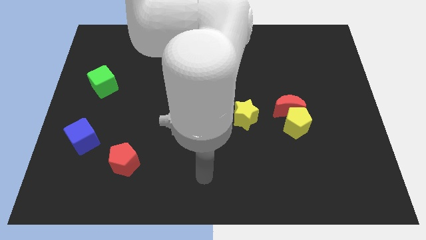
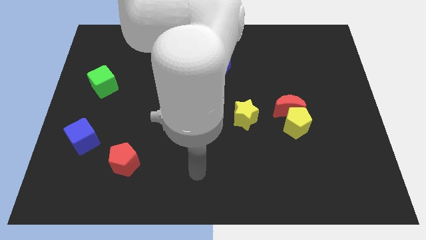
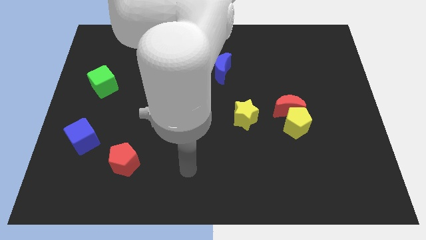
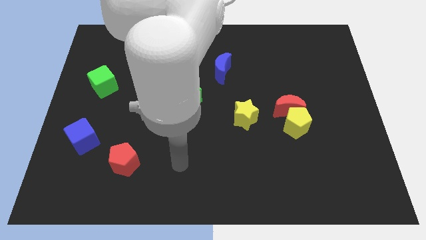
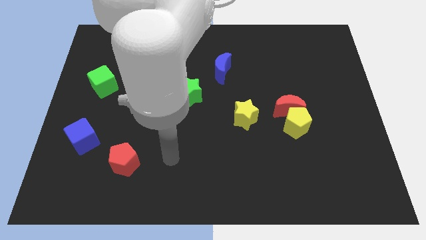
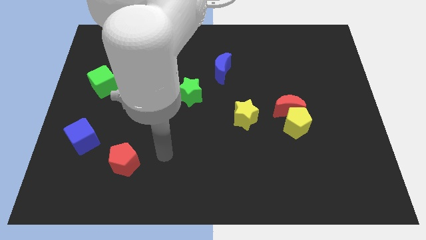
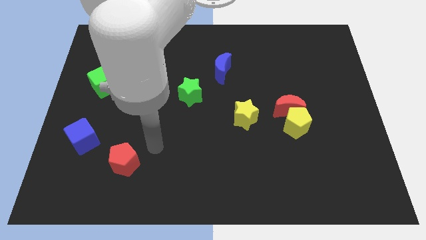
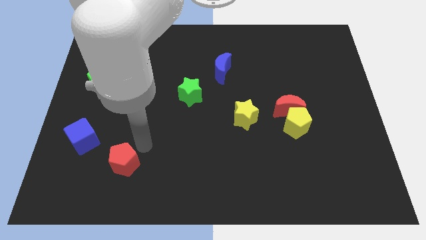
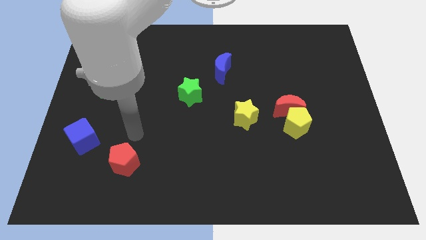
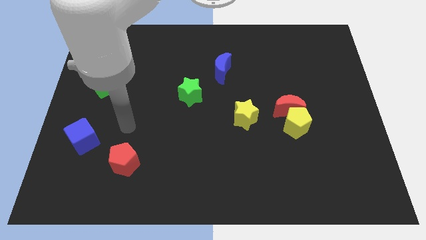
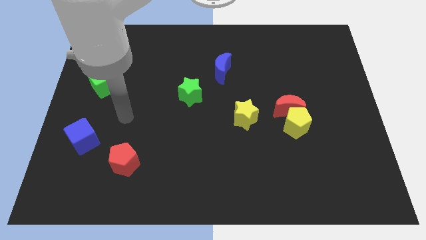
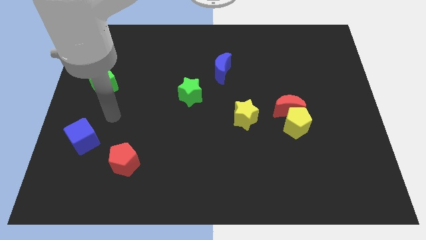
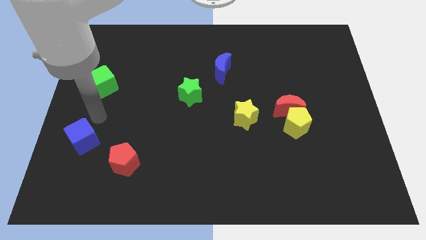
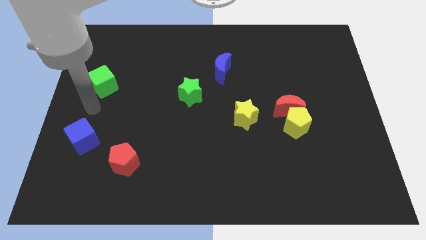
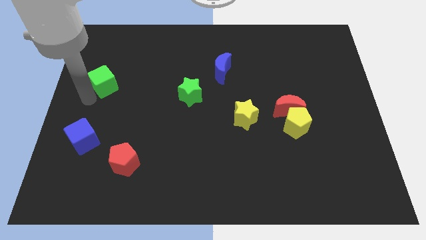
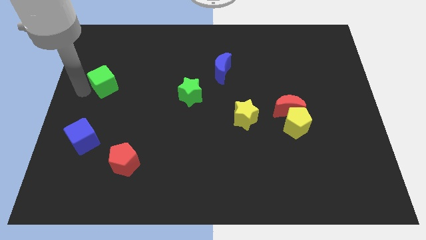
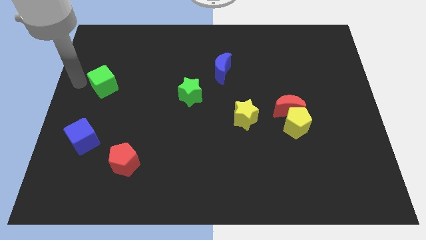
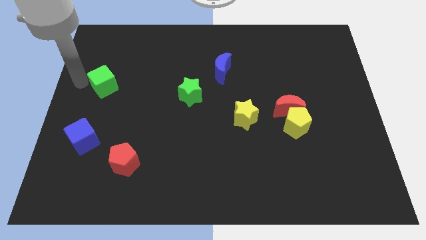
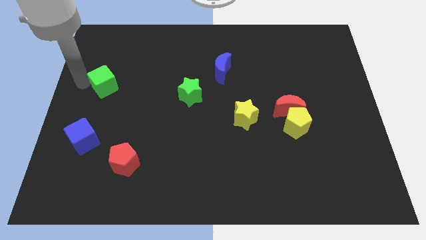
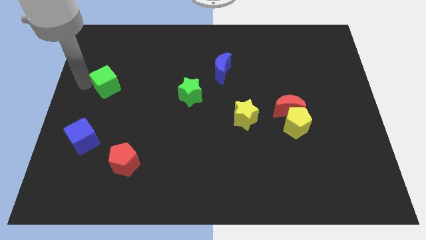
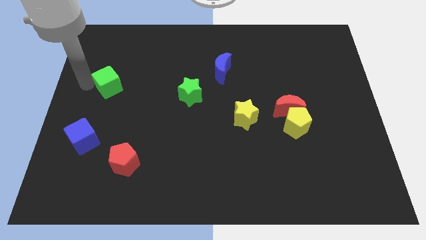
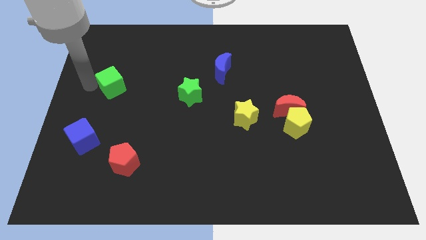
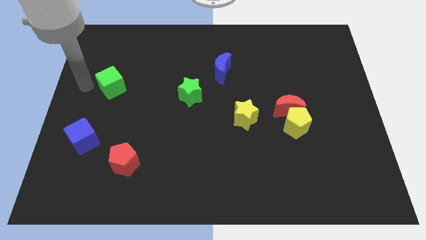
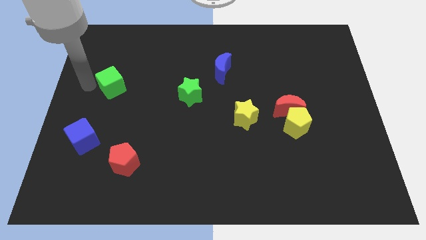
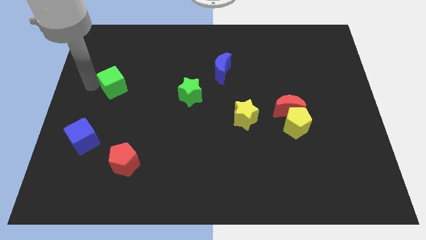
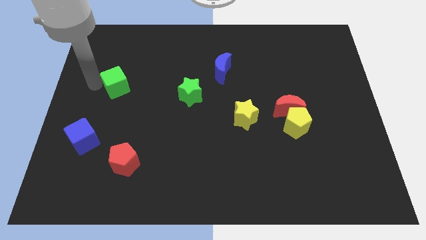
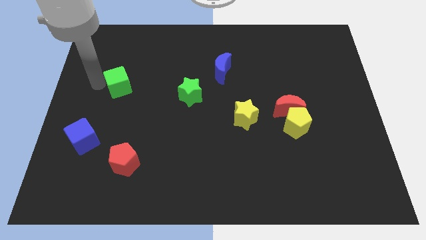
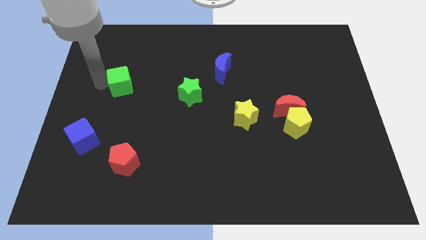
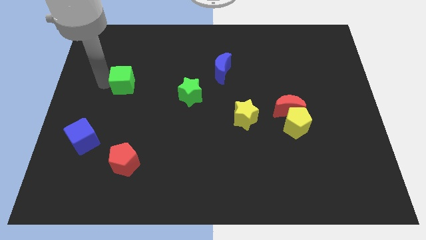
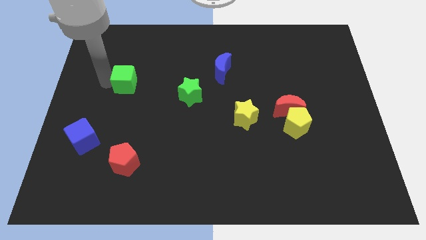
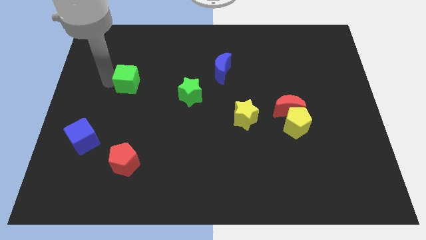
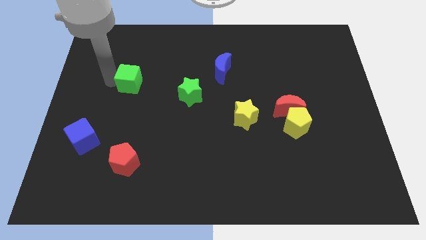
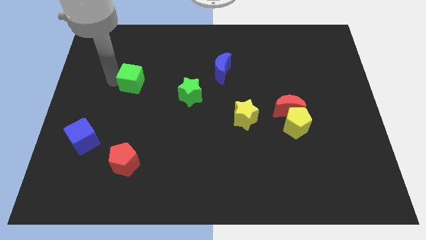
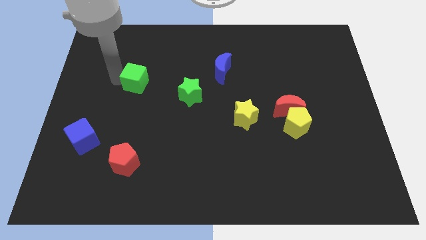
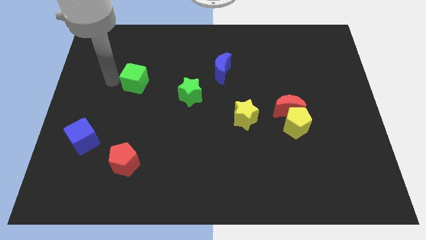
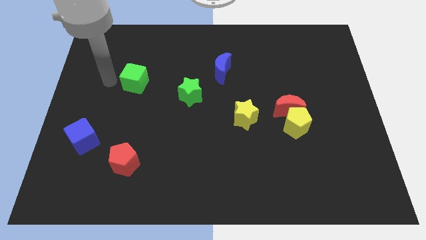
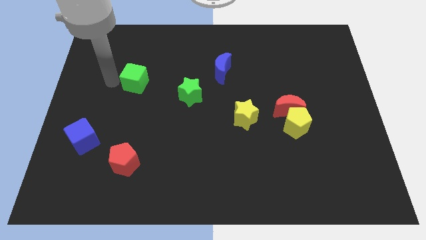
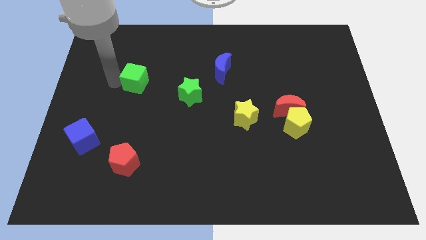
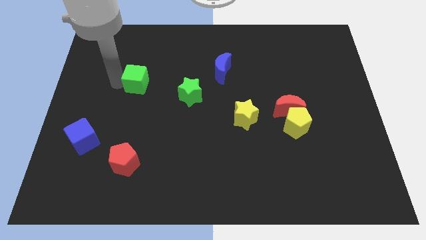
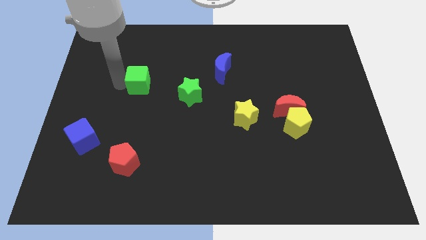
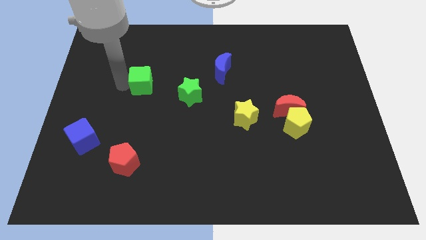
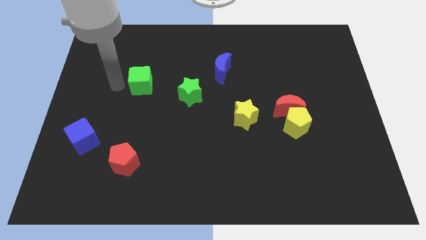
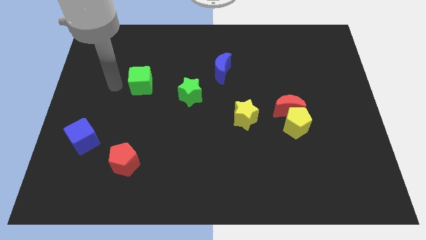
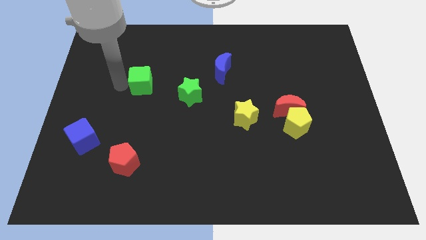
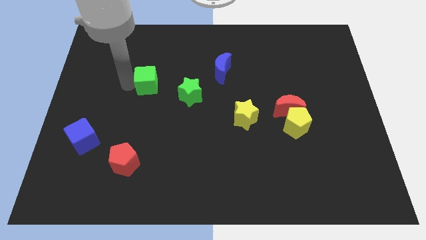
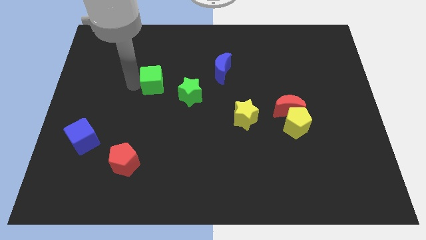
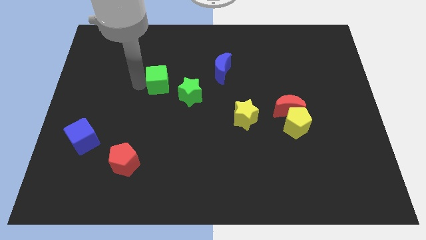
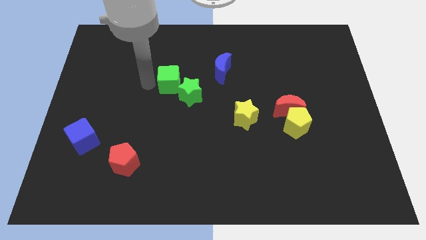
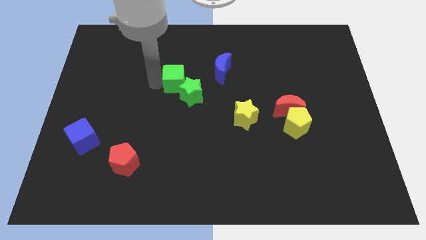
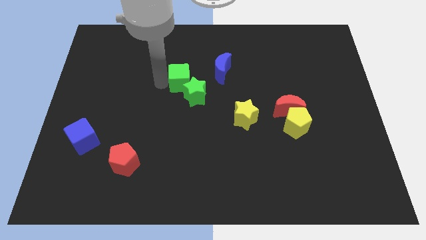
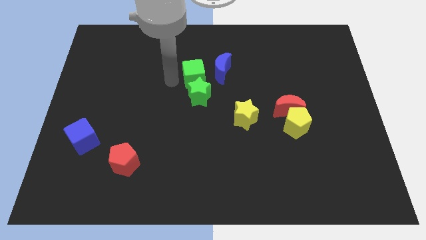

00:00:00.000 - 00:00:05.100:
move the green cube to the right

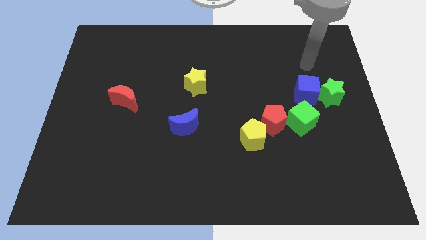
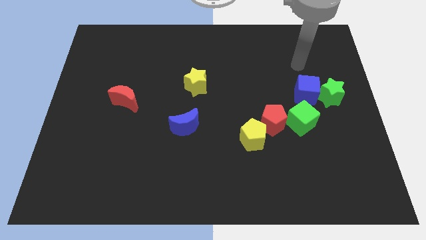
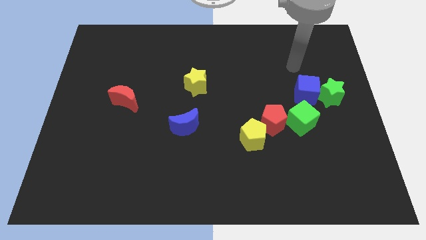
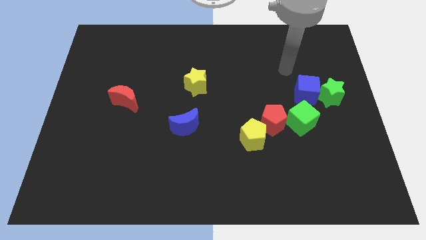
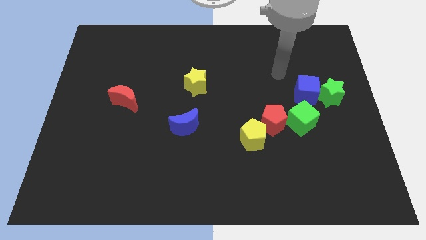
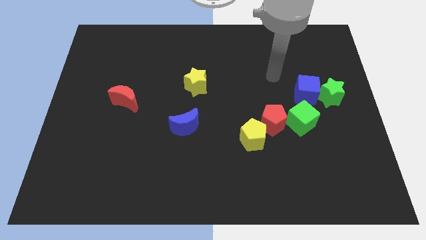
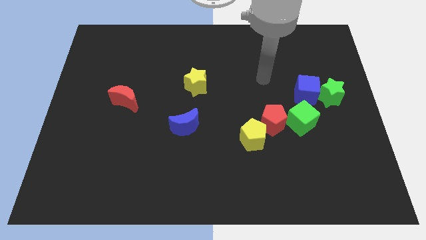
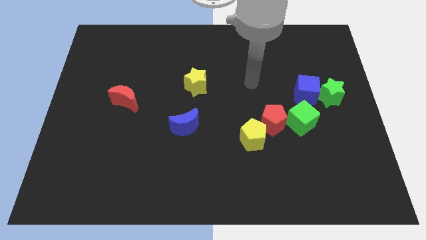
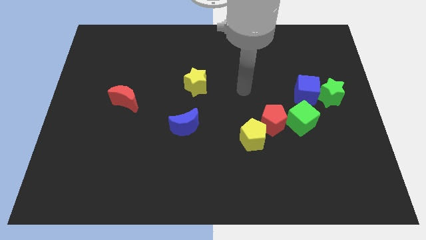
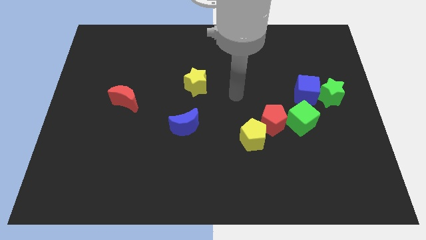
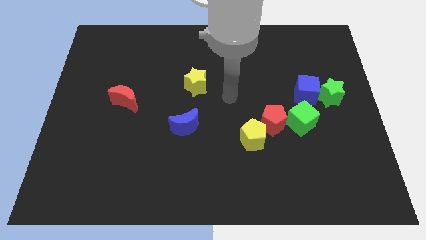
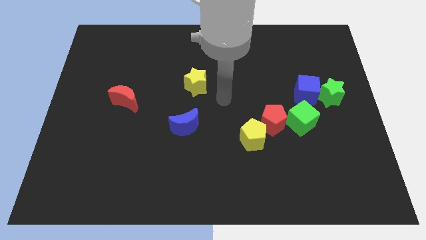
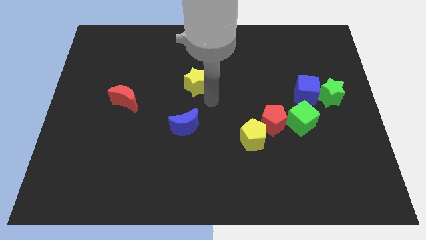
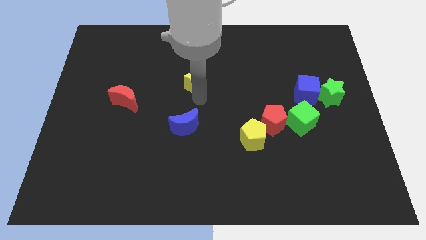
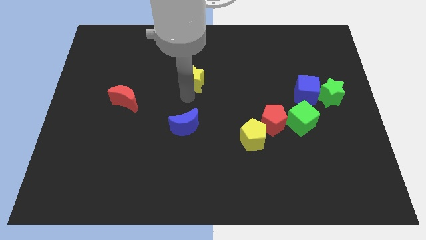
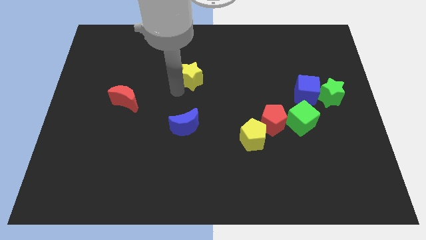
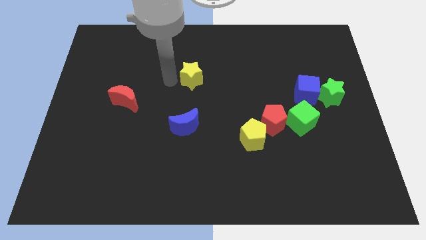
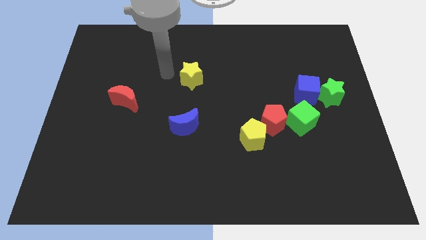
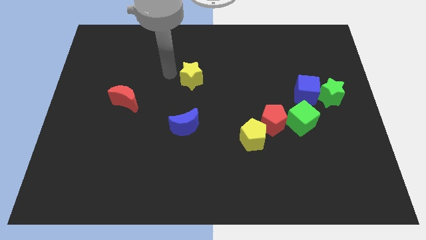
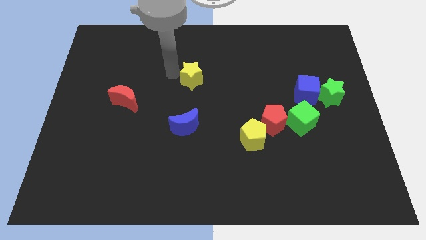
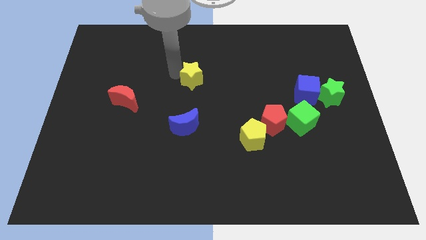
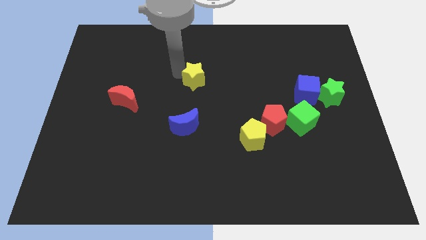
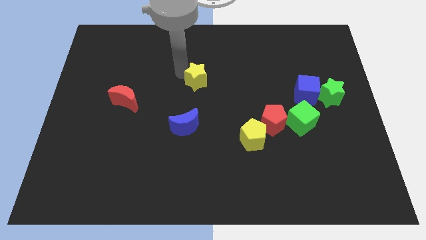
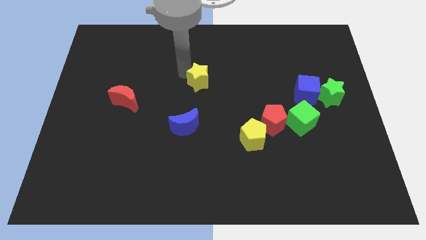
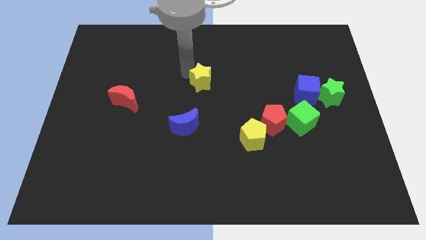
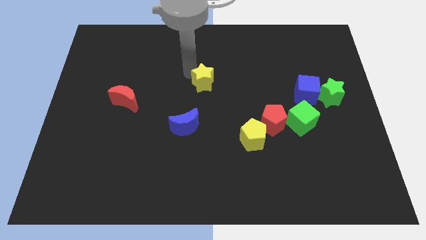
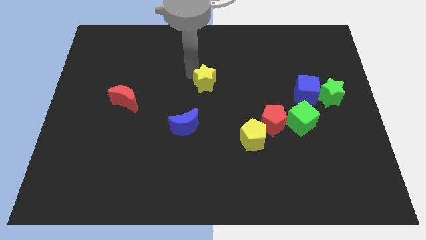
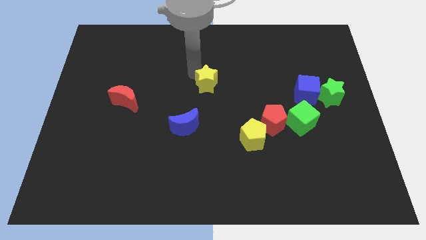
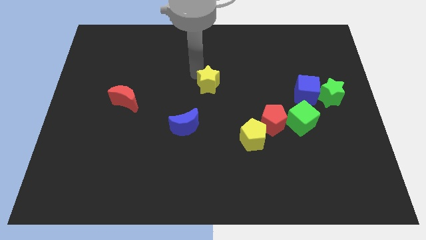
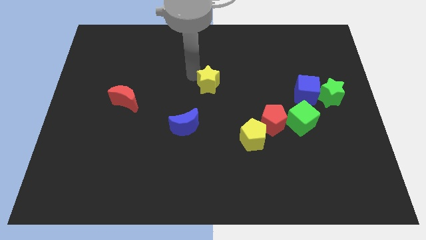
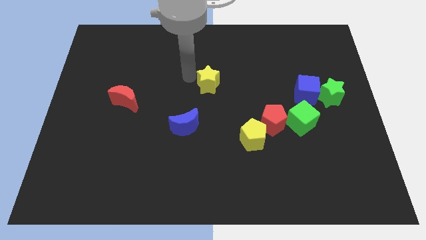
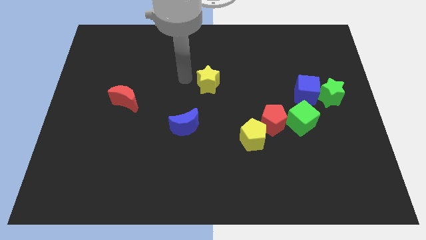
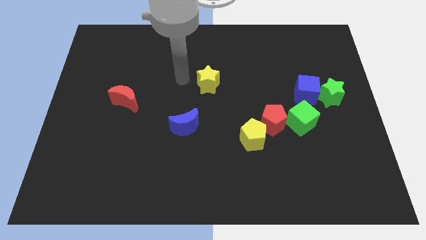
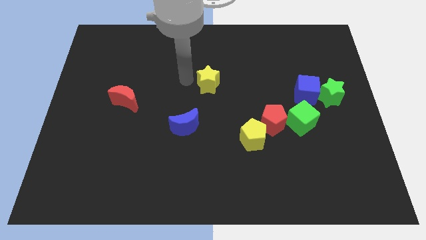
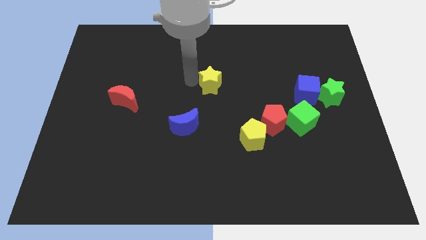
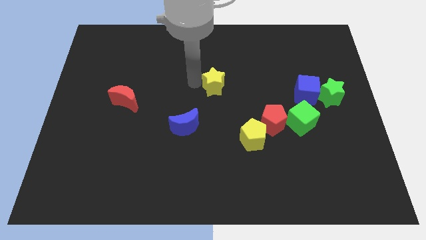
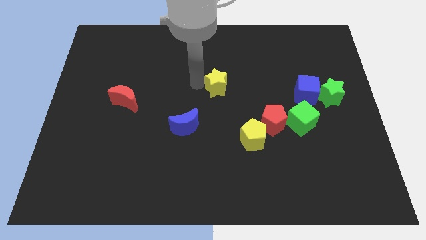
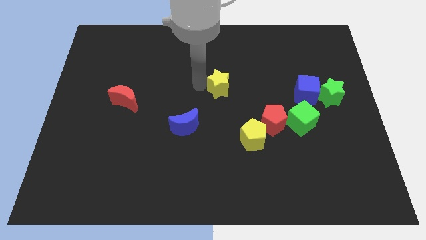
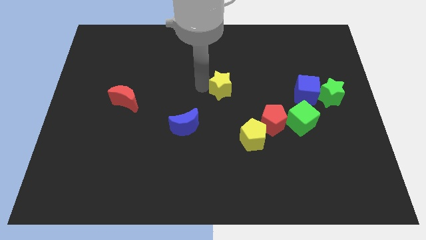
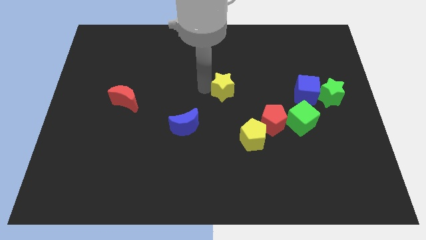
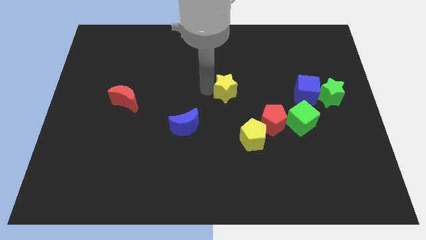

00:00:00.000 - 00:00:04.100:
slightly move the yellow star right
